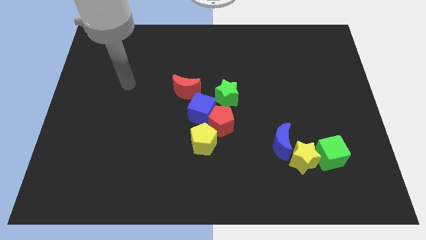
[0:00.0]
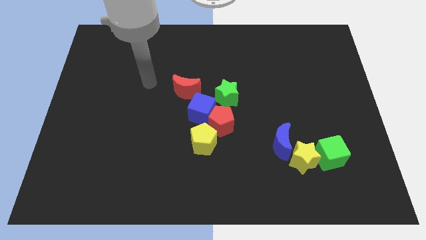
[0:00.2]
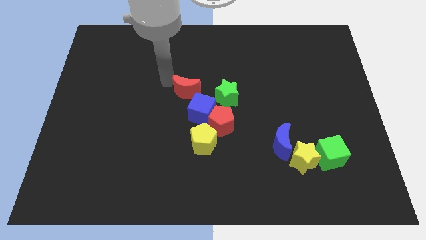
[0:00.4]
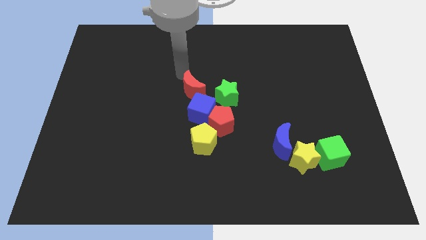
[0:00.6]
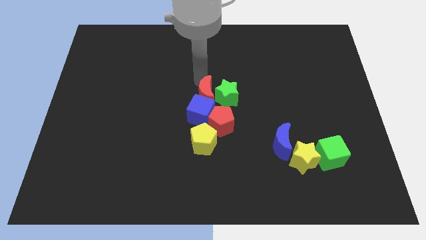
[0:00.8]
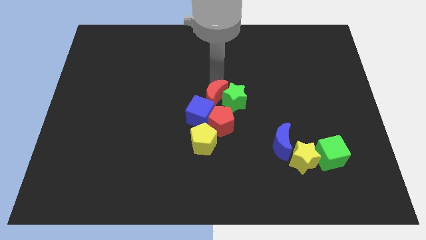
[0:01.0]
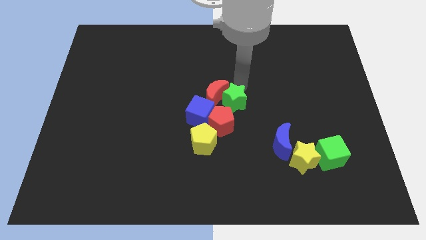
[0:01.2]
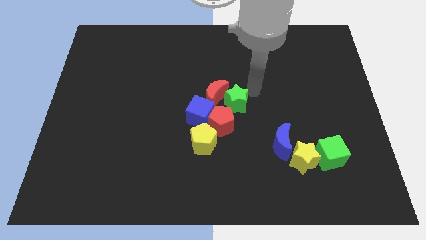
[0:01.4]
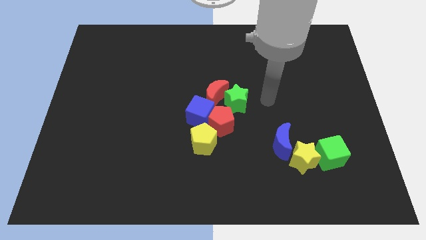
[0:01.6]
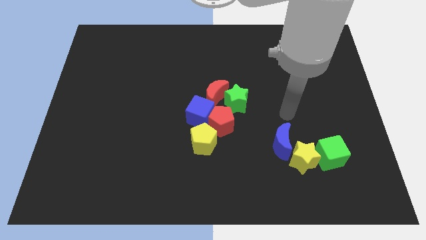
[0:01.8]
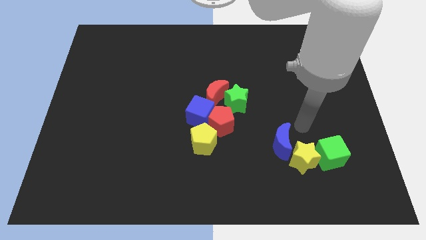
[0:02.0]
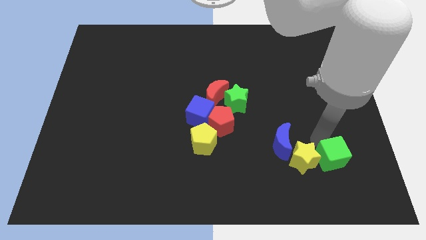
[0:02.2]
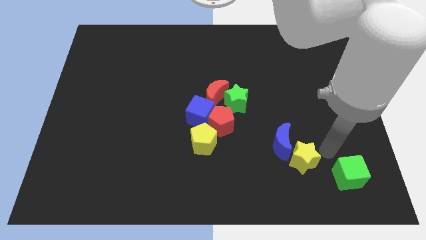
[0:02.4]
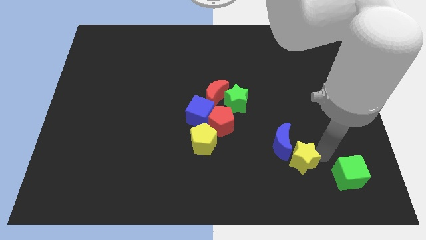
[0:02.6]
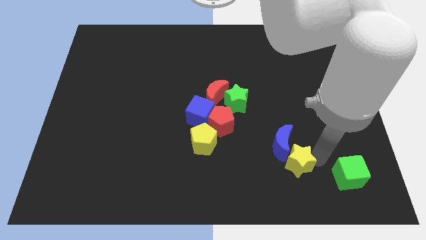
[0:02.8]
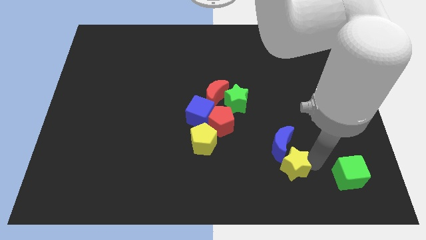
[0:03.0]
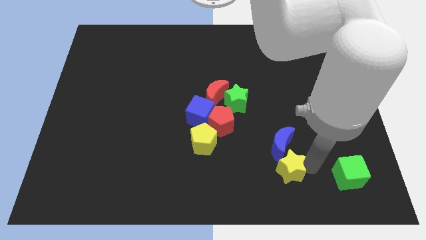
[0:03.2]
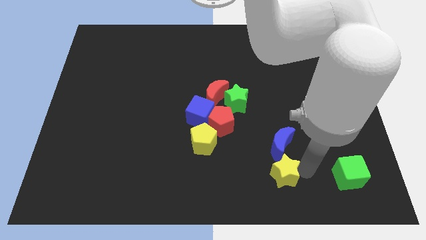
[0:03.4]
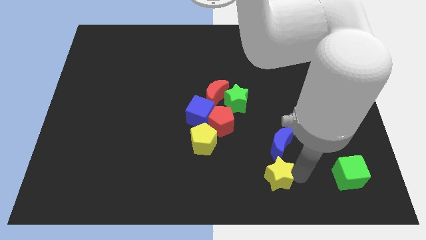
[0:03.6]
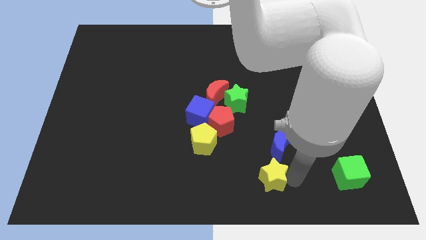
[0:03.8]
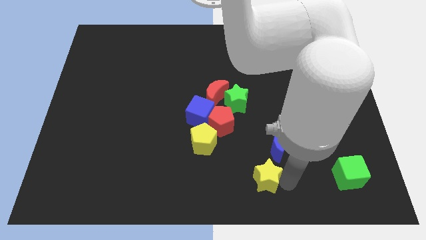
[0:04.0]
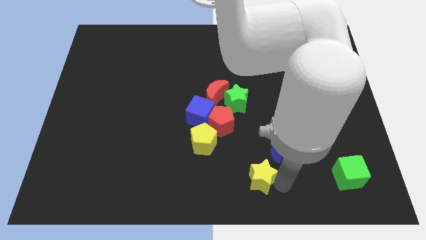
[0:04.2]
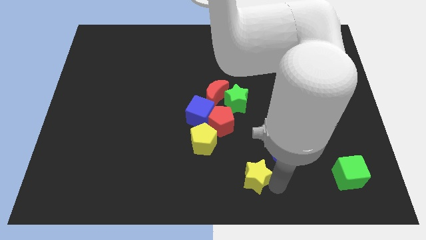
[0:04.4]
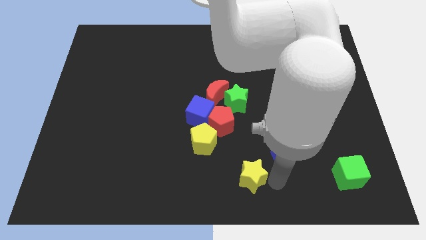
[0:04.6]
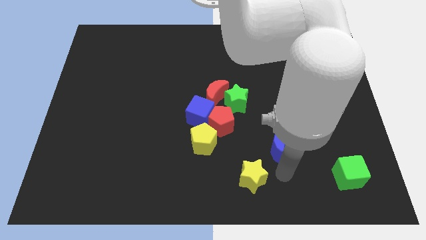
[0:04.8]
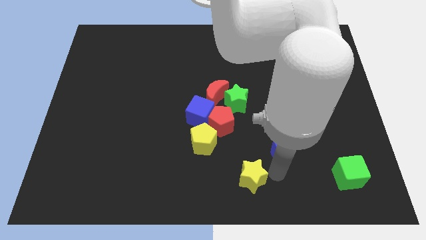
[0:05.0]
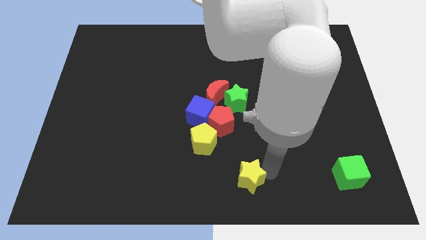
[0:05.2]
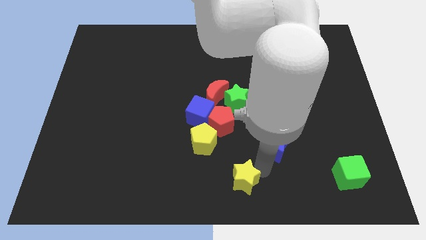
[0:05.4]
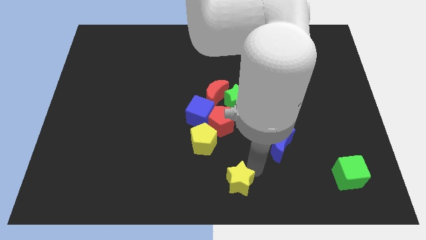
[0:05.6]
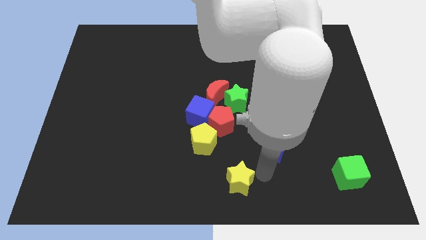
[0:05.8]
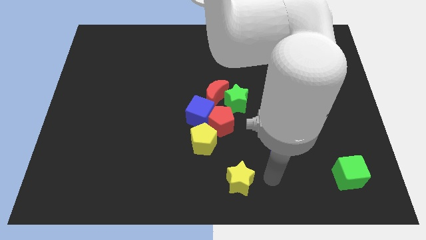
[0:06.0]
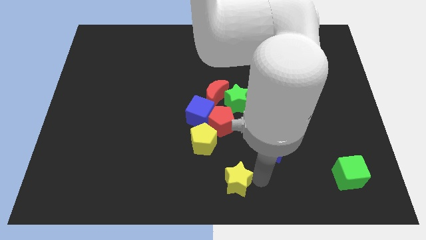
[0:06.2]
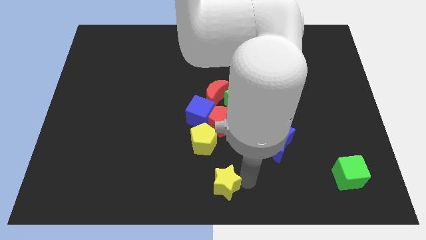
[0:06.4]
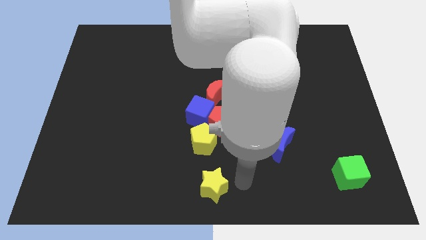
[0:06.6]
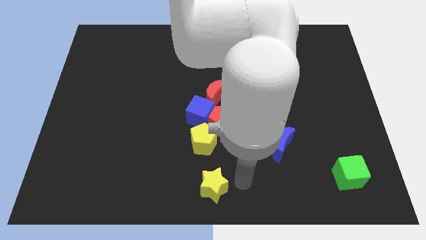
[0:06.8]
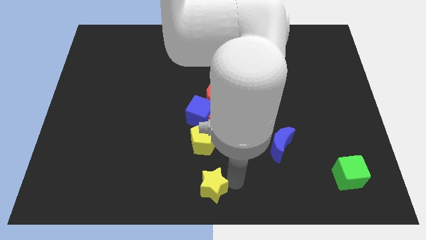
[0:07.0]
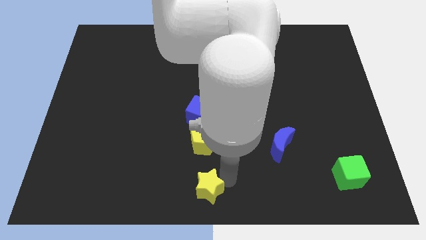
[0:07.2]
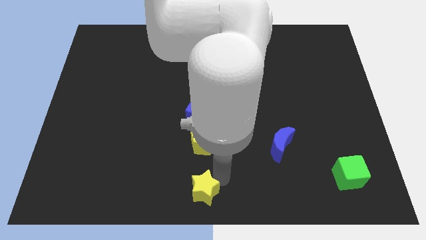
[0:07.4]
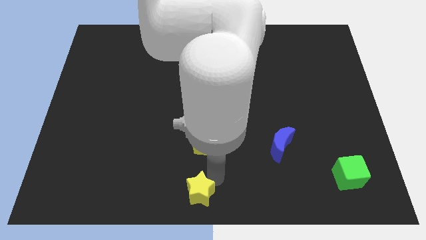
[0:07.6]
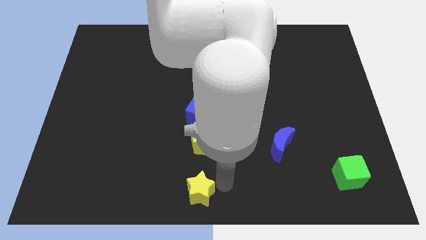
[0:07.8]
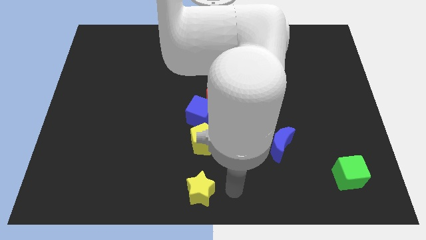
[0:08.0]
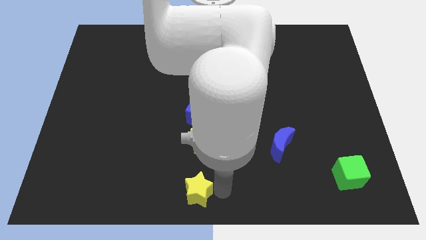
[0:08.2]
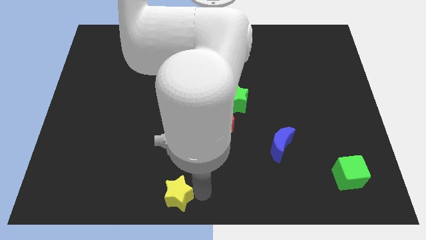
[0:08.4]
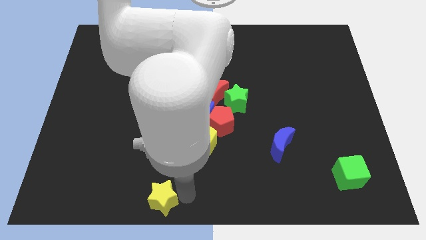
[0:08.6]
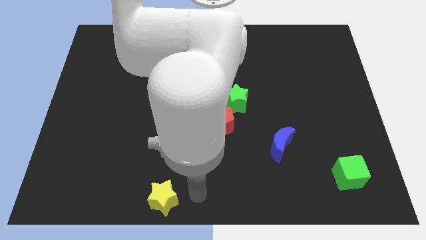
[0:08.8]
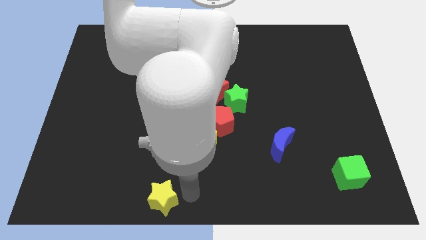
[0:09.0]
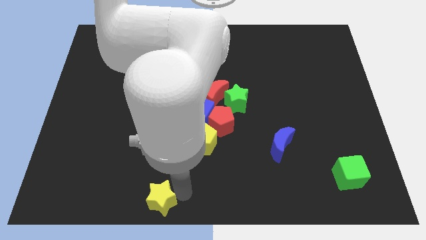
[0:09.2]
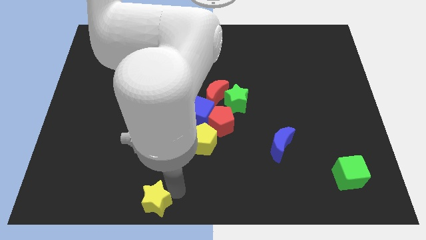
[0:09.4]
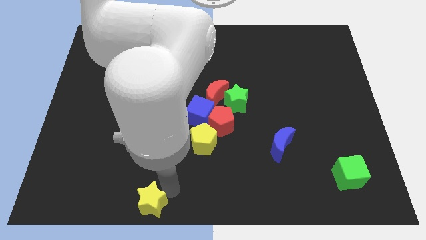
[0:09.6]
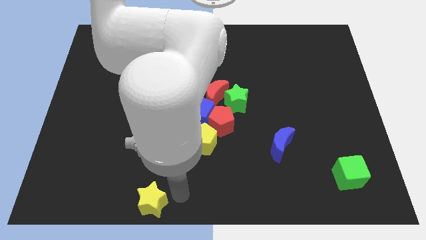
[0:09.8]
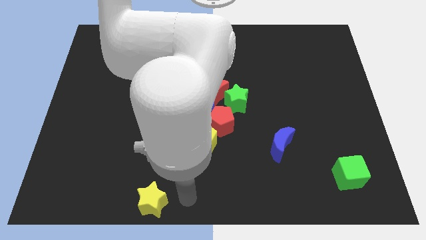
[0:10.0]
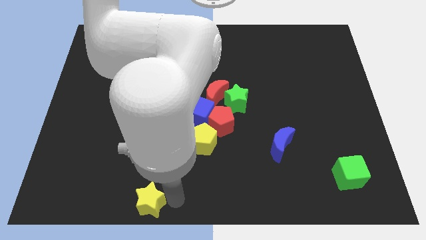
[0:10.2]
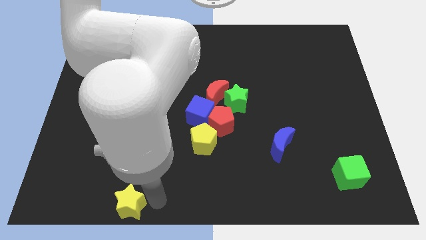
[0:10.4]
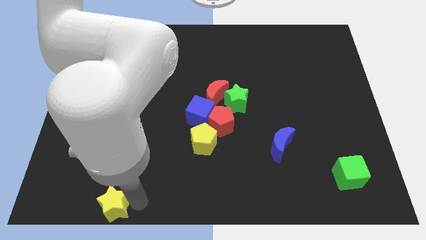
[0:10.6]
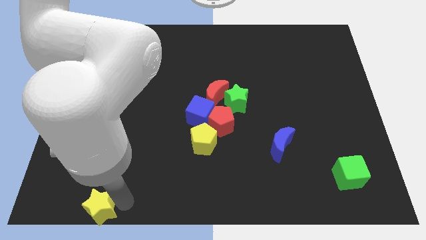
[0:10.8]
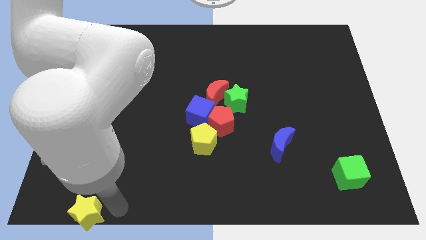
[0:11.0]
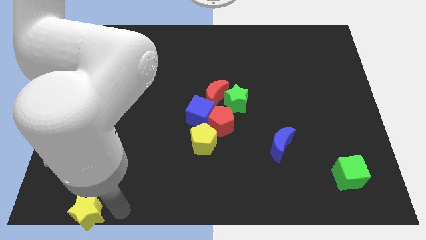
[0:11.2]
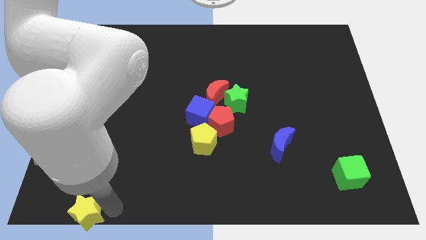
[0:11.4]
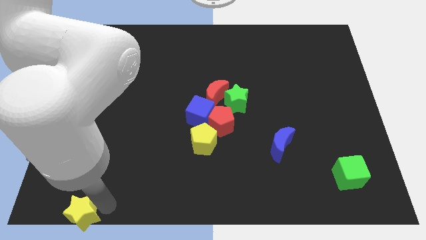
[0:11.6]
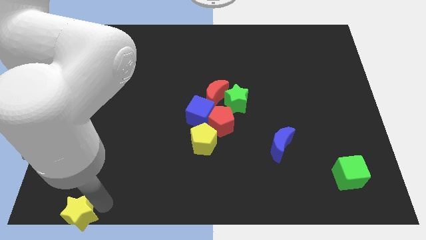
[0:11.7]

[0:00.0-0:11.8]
slide the yellow star to the bottom left corner
